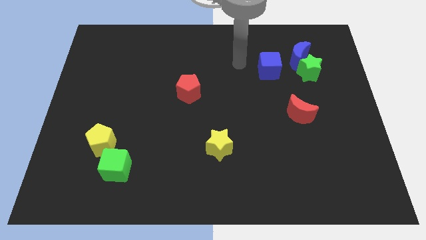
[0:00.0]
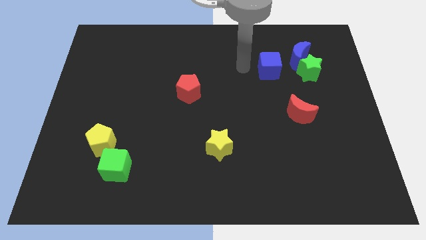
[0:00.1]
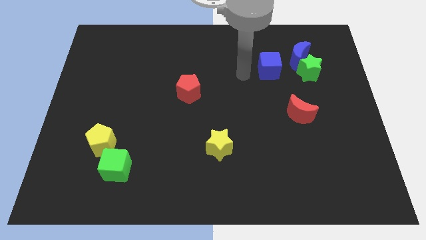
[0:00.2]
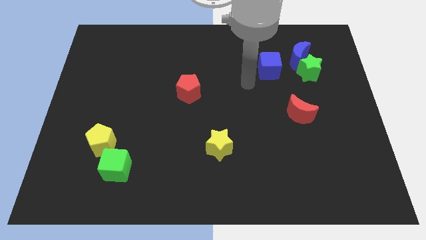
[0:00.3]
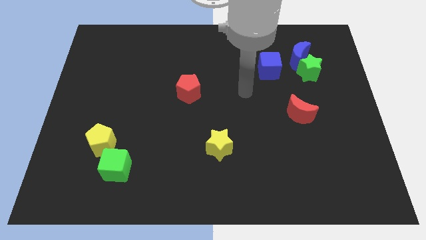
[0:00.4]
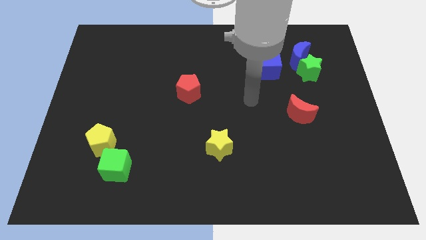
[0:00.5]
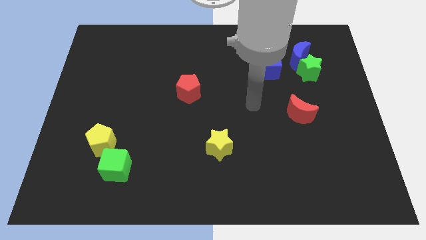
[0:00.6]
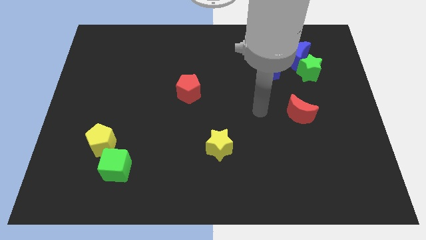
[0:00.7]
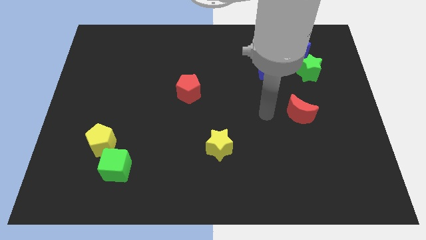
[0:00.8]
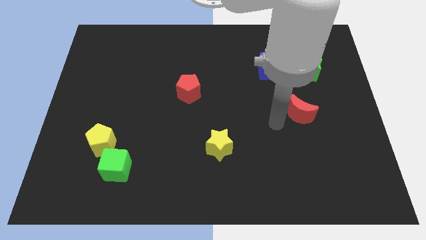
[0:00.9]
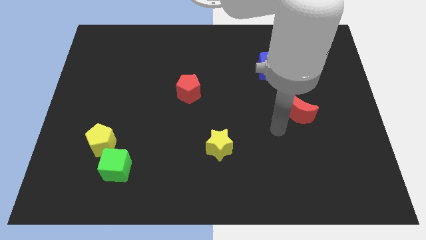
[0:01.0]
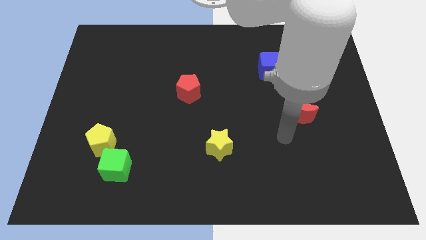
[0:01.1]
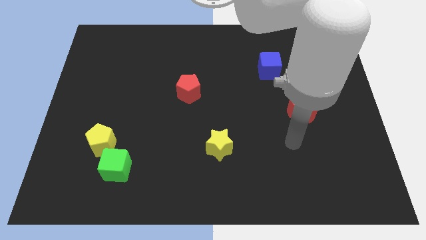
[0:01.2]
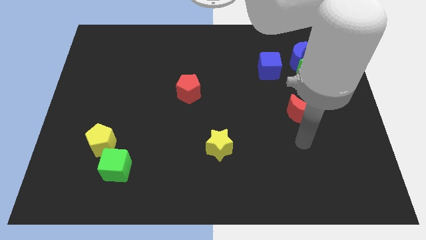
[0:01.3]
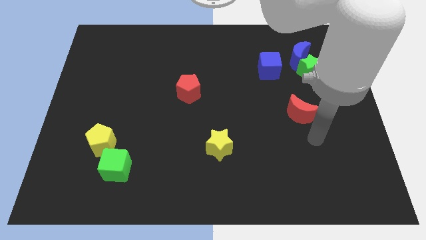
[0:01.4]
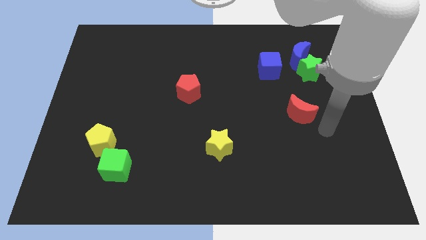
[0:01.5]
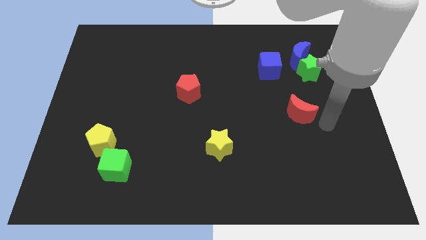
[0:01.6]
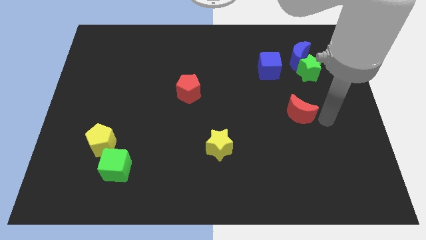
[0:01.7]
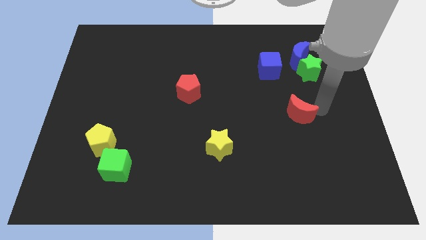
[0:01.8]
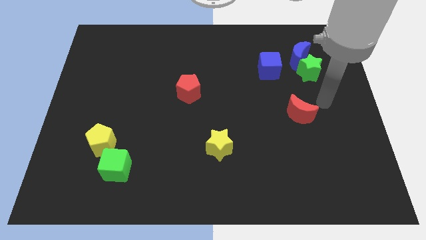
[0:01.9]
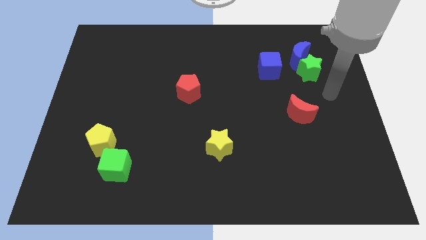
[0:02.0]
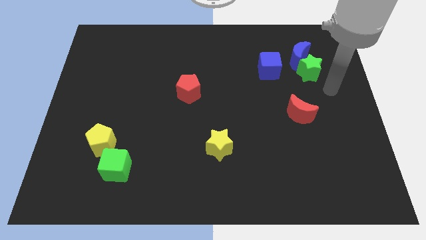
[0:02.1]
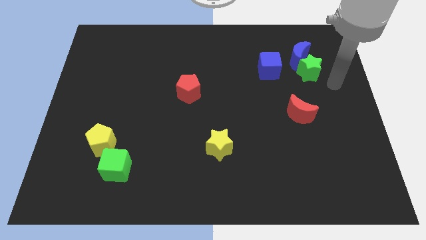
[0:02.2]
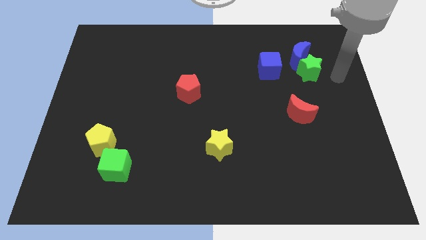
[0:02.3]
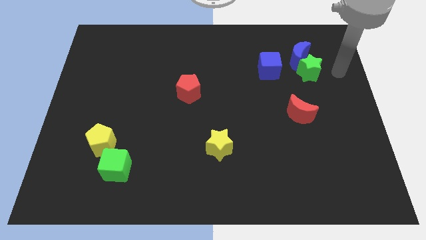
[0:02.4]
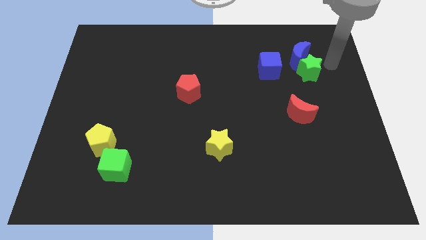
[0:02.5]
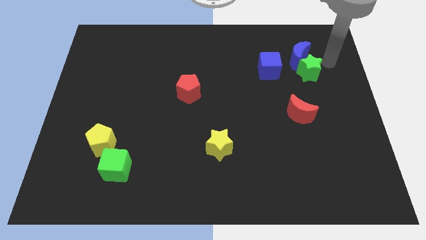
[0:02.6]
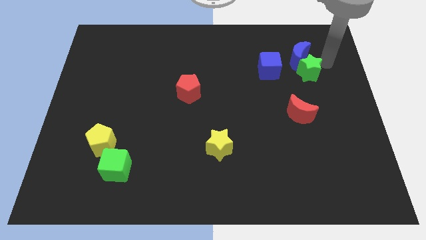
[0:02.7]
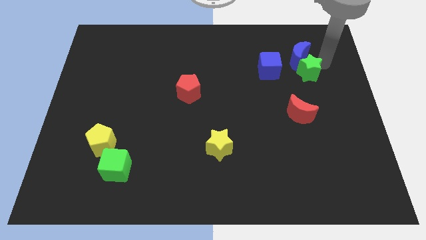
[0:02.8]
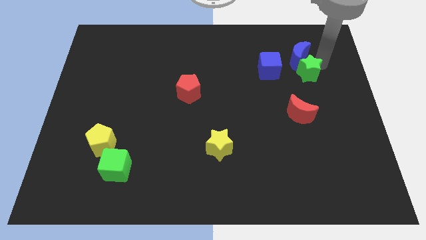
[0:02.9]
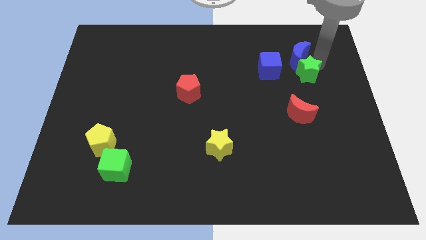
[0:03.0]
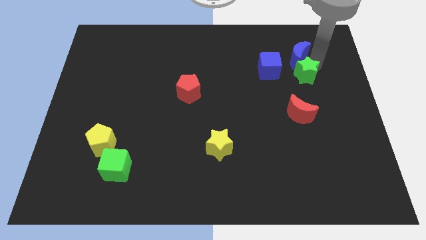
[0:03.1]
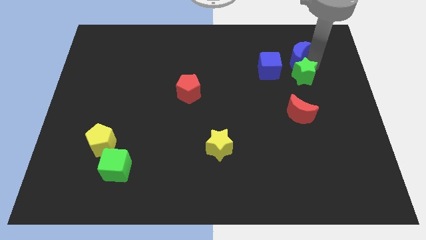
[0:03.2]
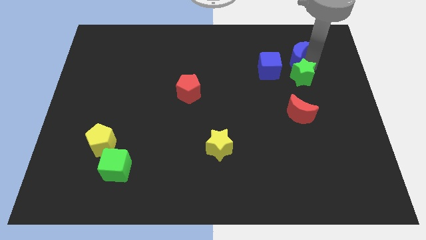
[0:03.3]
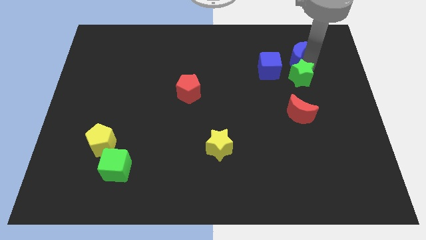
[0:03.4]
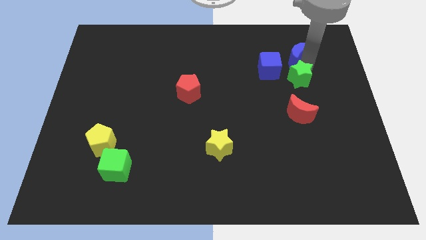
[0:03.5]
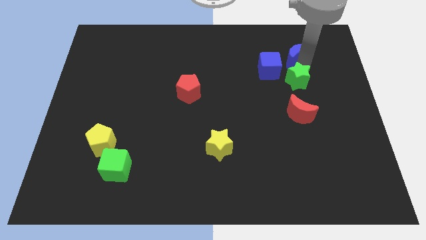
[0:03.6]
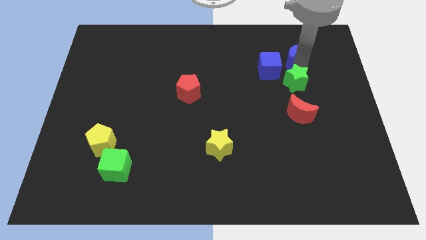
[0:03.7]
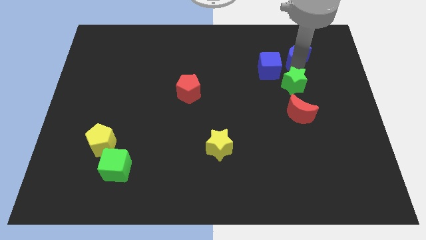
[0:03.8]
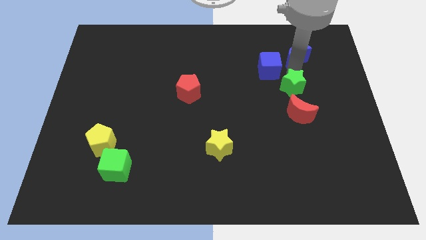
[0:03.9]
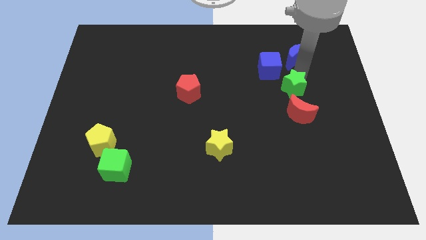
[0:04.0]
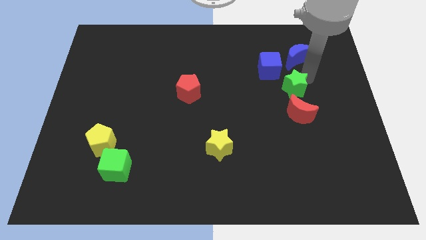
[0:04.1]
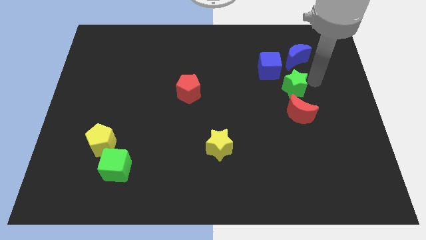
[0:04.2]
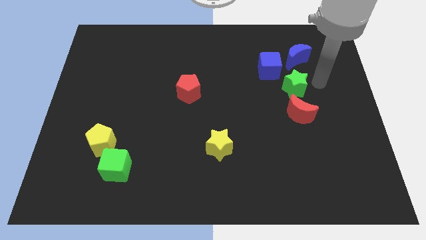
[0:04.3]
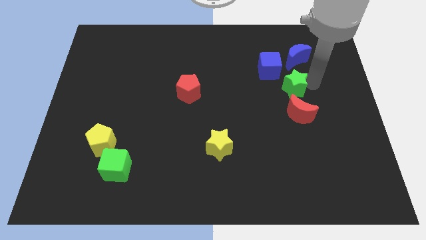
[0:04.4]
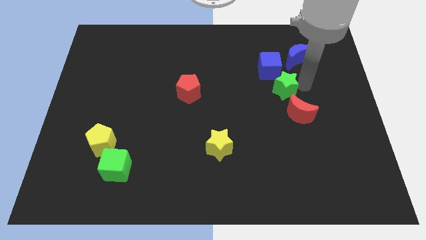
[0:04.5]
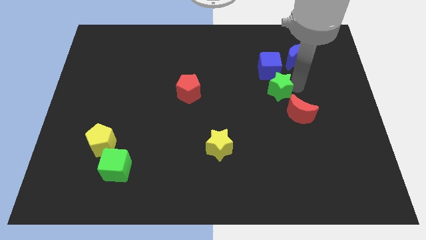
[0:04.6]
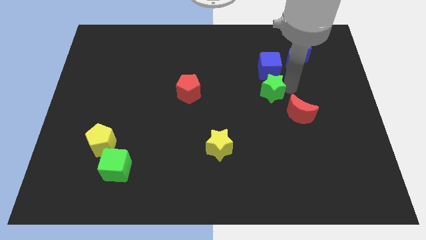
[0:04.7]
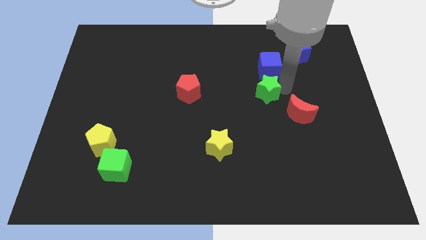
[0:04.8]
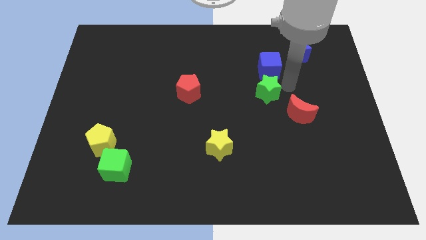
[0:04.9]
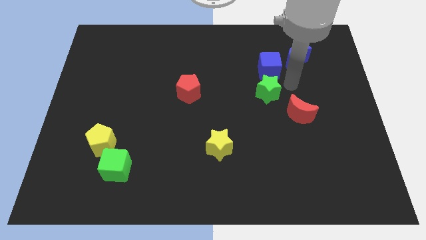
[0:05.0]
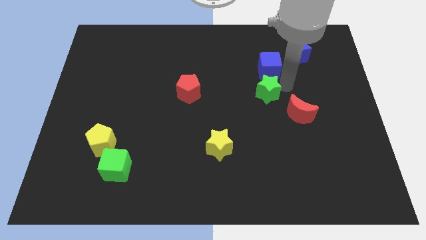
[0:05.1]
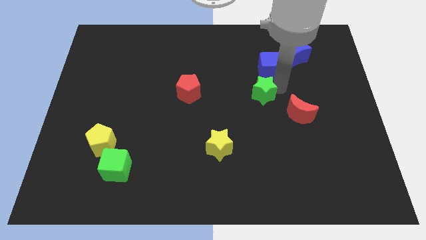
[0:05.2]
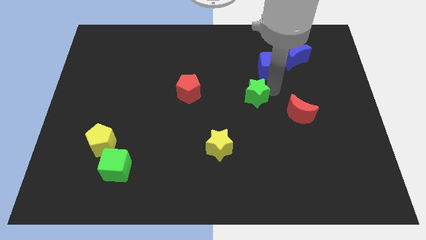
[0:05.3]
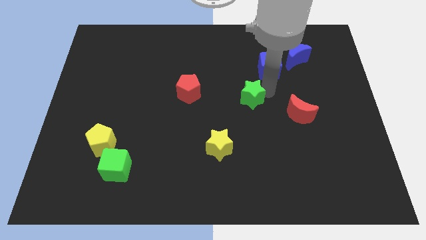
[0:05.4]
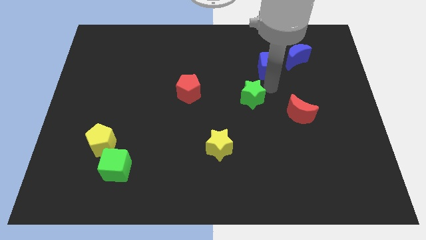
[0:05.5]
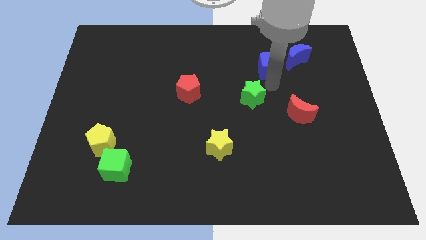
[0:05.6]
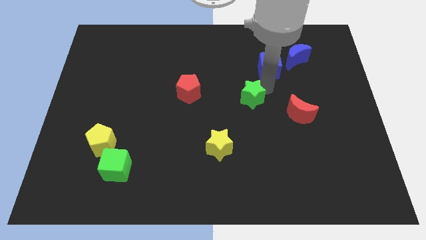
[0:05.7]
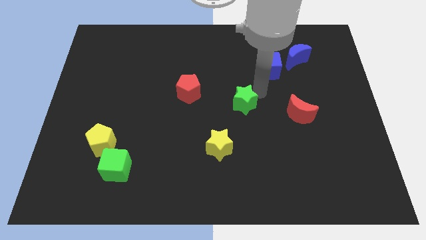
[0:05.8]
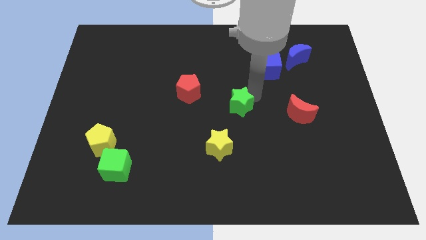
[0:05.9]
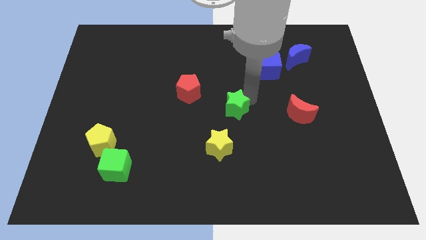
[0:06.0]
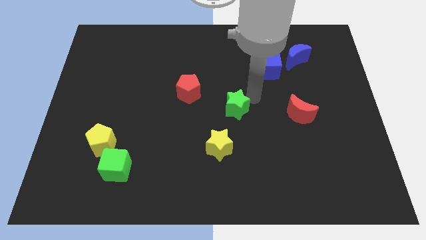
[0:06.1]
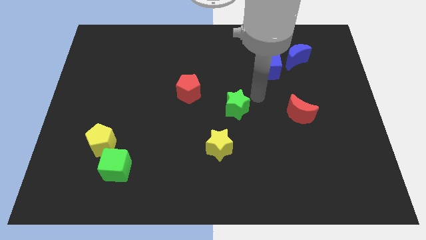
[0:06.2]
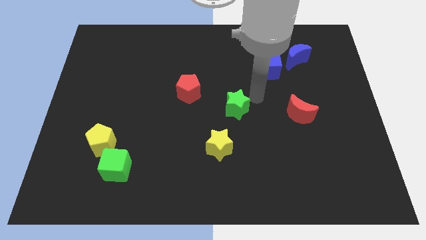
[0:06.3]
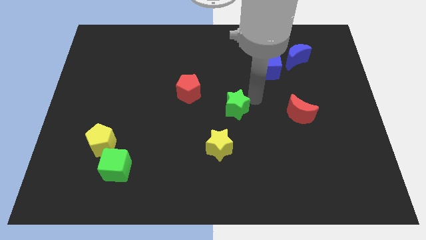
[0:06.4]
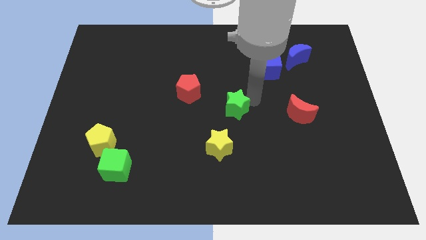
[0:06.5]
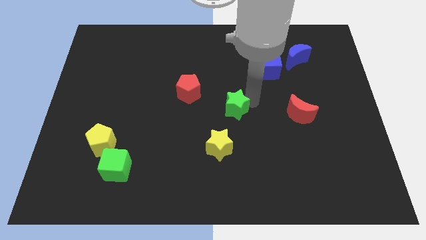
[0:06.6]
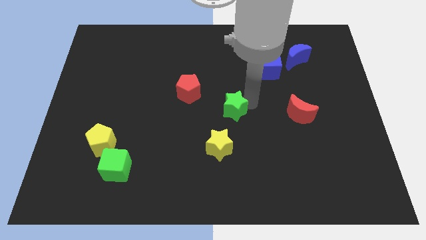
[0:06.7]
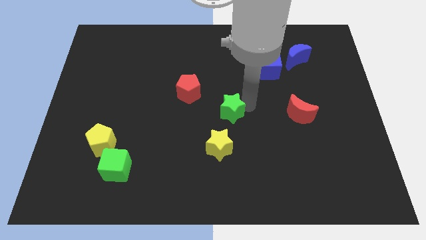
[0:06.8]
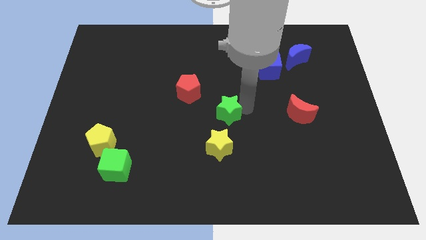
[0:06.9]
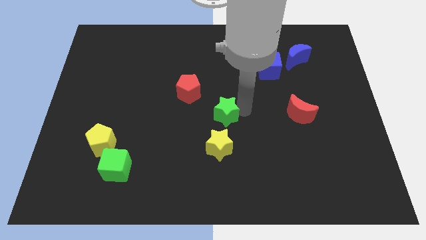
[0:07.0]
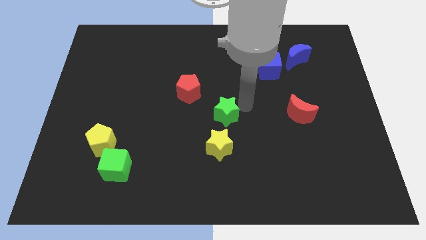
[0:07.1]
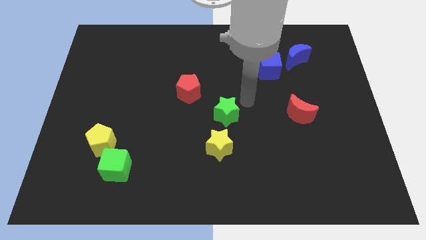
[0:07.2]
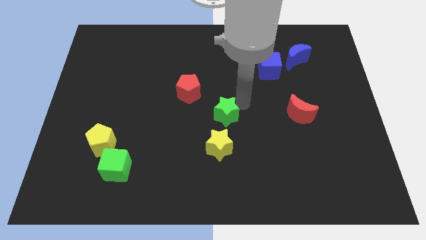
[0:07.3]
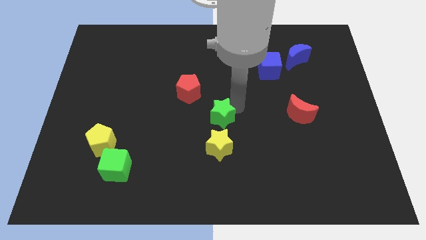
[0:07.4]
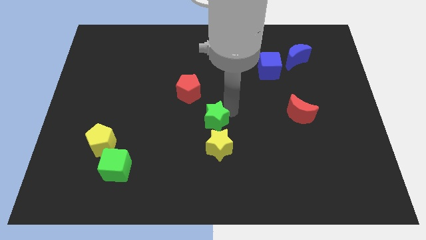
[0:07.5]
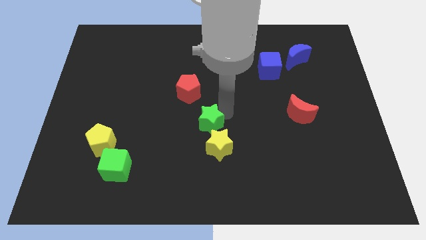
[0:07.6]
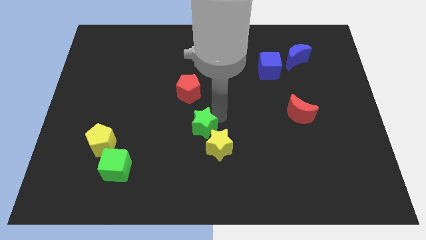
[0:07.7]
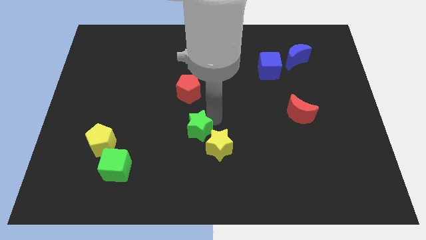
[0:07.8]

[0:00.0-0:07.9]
push the green star to the left side of the yellow star
